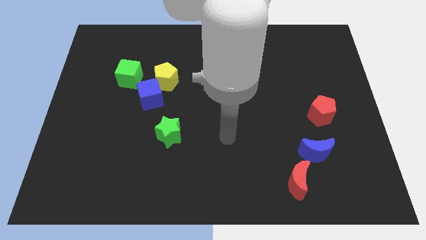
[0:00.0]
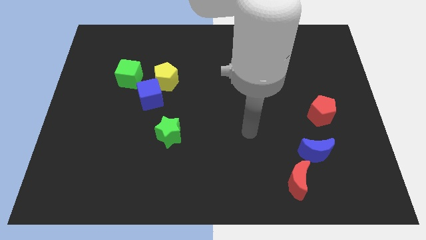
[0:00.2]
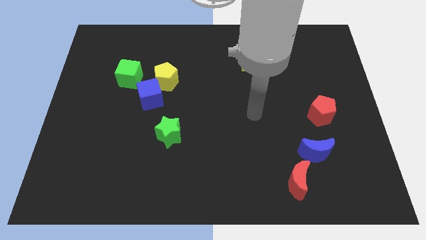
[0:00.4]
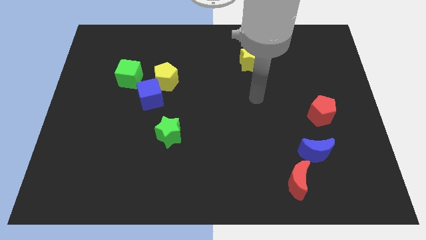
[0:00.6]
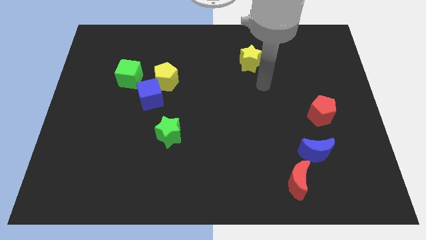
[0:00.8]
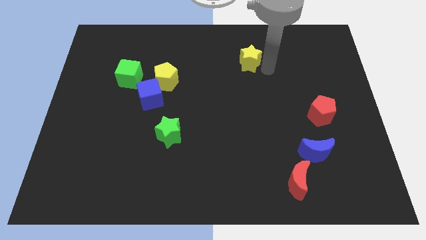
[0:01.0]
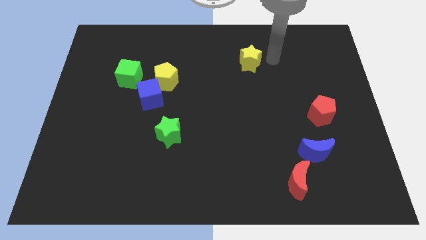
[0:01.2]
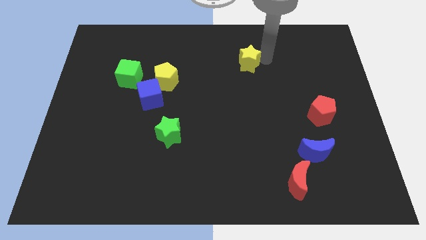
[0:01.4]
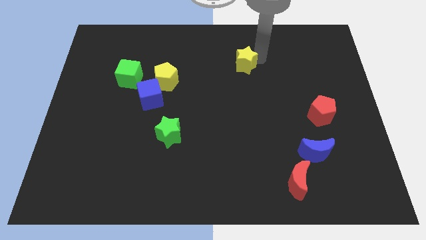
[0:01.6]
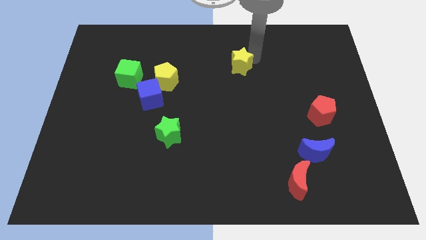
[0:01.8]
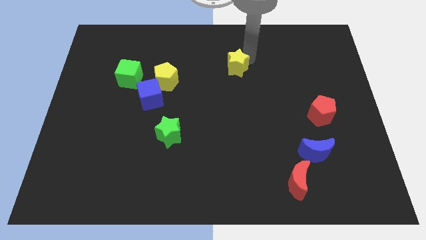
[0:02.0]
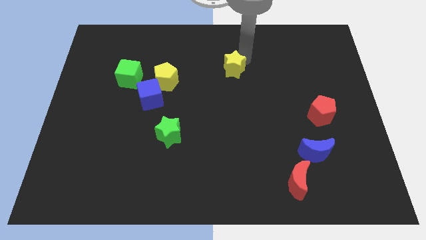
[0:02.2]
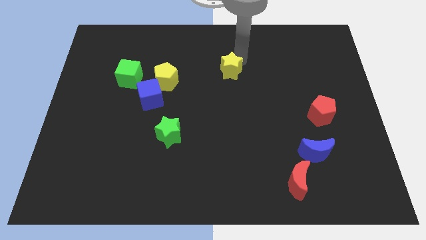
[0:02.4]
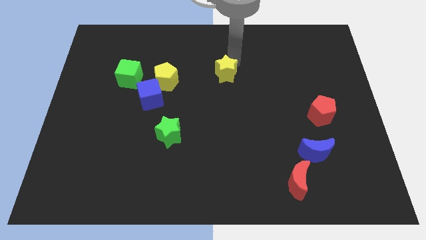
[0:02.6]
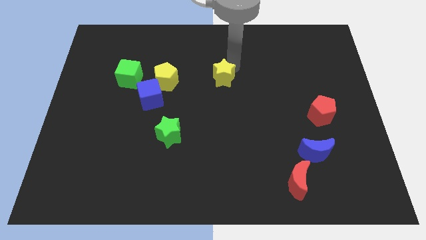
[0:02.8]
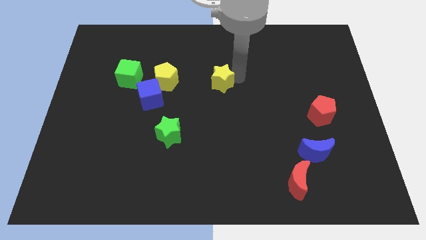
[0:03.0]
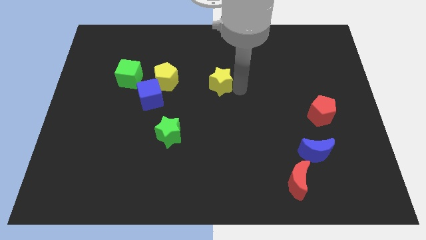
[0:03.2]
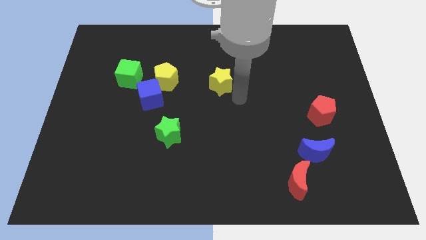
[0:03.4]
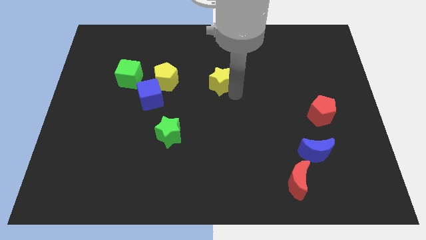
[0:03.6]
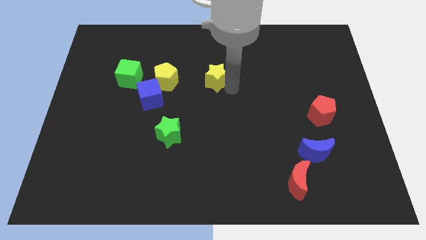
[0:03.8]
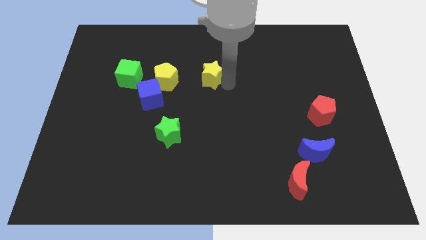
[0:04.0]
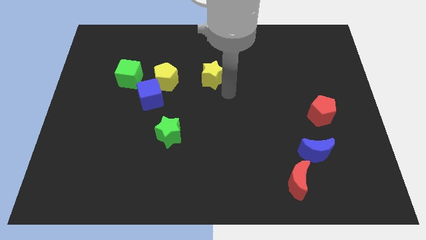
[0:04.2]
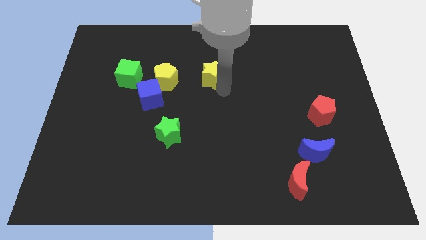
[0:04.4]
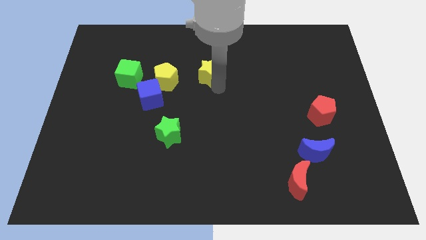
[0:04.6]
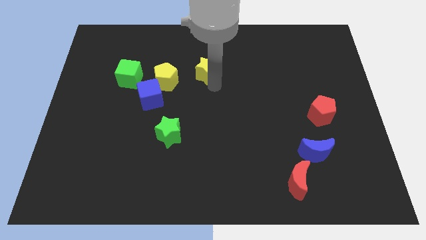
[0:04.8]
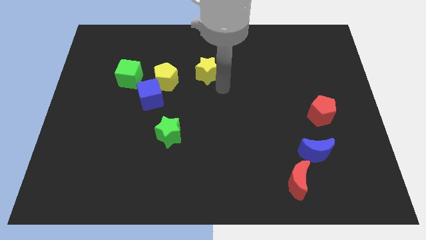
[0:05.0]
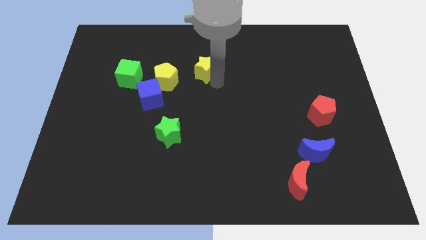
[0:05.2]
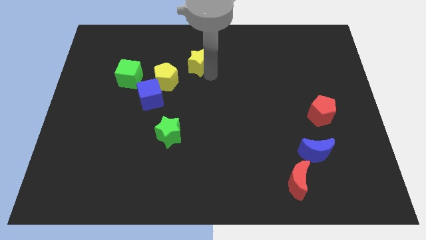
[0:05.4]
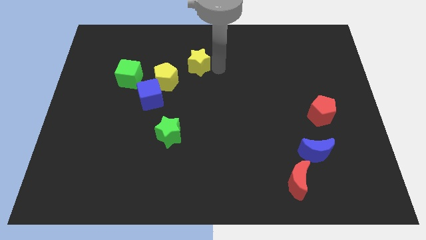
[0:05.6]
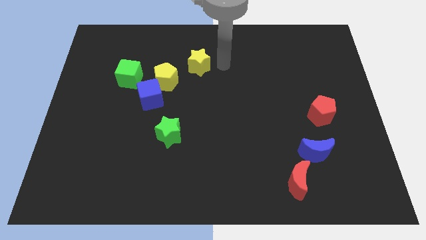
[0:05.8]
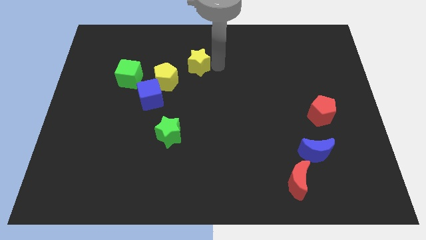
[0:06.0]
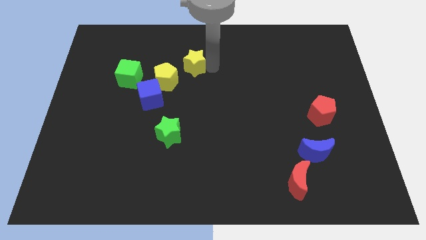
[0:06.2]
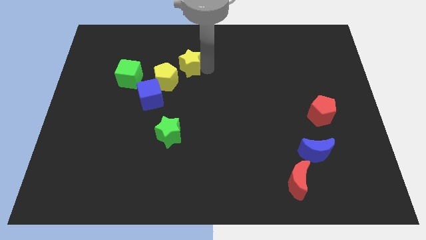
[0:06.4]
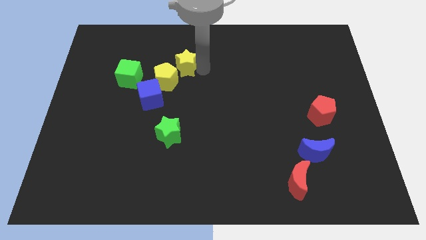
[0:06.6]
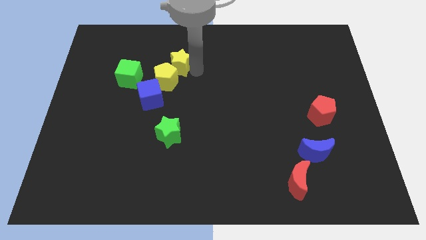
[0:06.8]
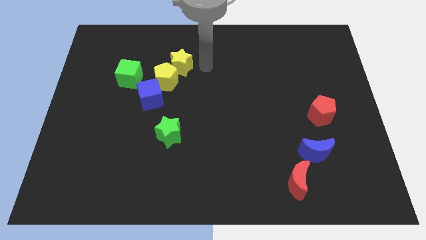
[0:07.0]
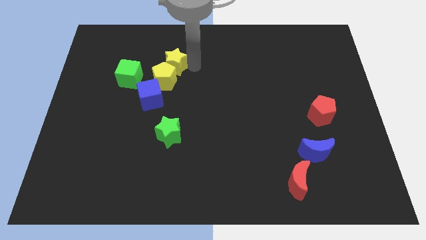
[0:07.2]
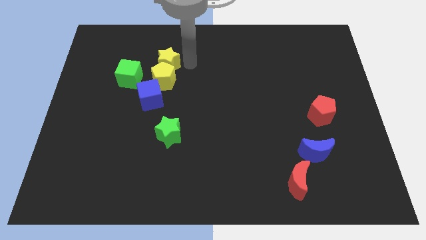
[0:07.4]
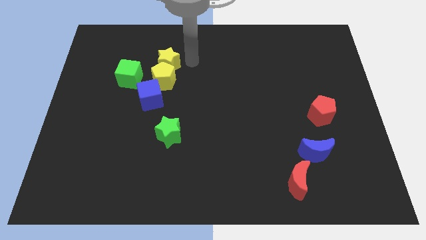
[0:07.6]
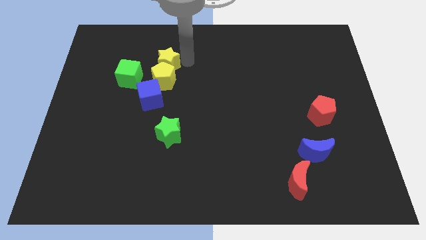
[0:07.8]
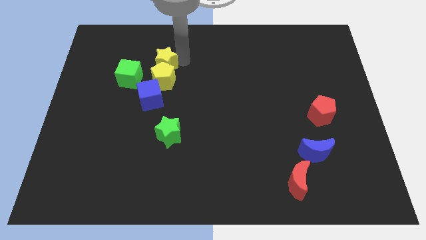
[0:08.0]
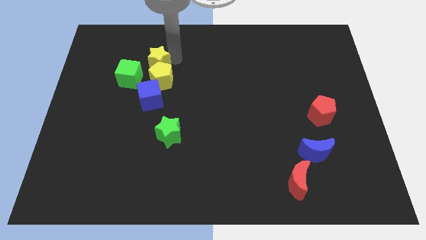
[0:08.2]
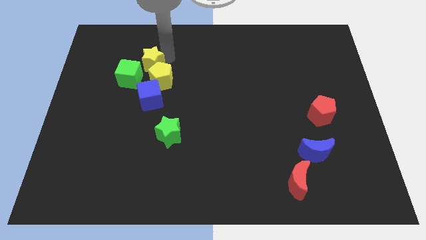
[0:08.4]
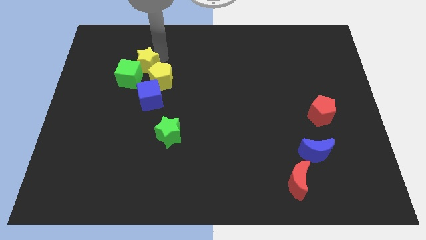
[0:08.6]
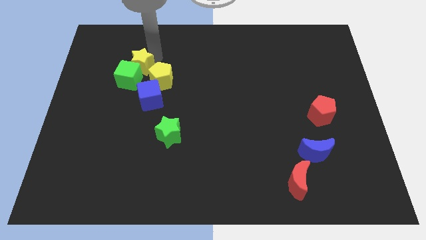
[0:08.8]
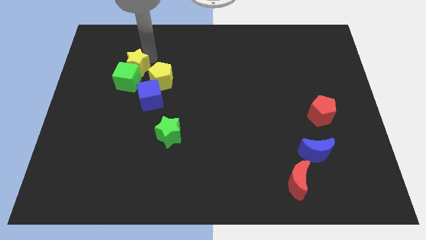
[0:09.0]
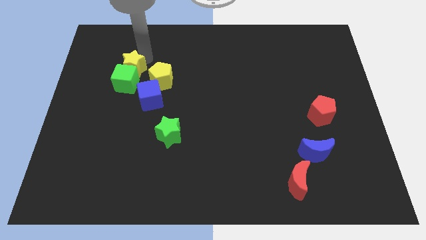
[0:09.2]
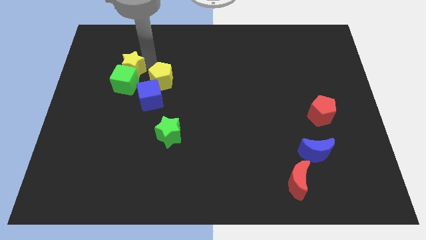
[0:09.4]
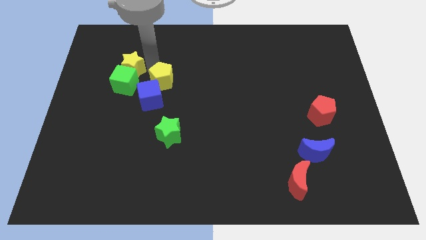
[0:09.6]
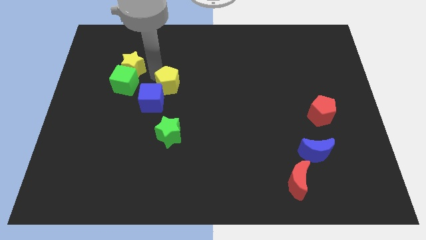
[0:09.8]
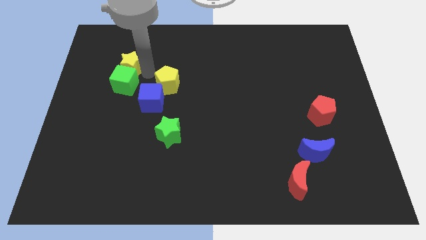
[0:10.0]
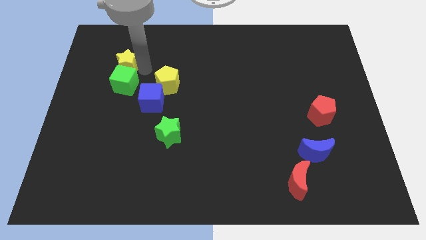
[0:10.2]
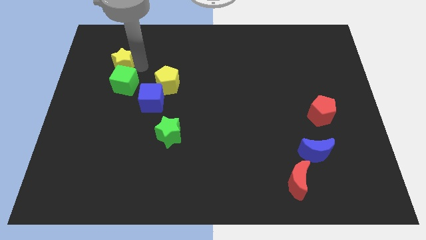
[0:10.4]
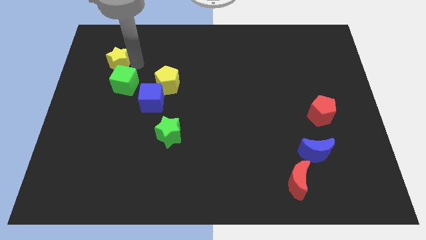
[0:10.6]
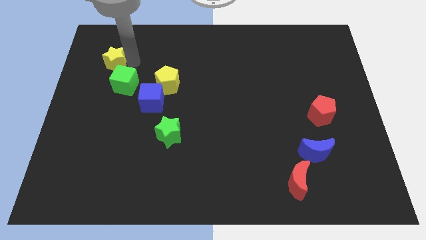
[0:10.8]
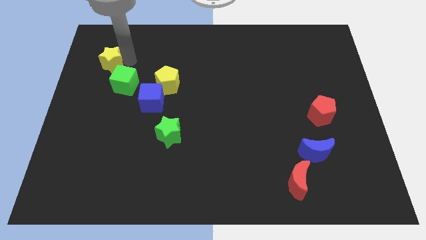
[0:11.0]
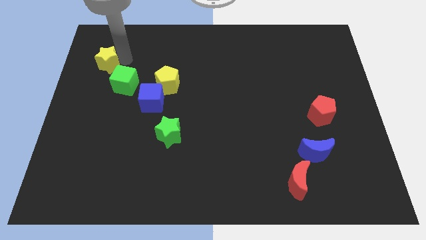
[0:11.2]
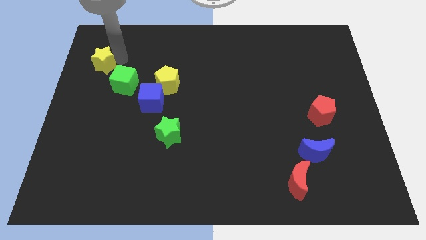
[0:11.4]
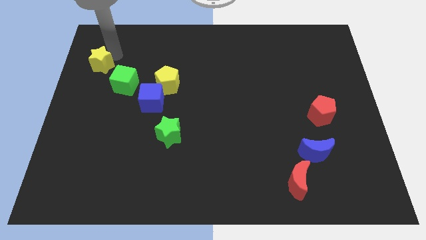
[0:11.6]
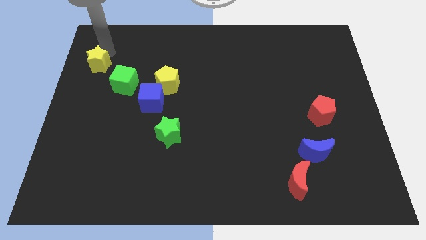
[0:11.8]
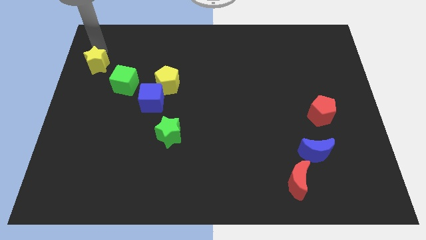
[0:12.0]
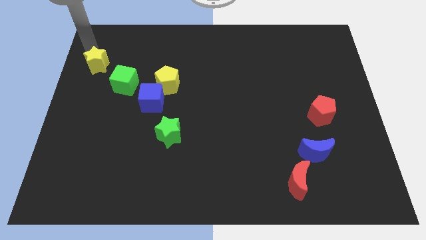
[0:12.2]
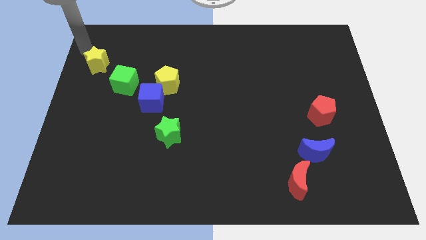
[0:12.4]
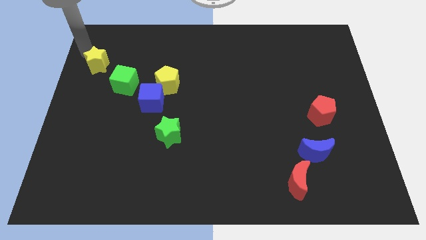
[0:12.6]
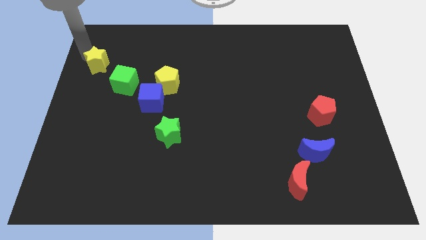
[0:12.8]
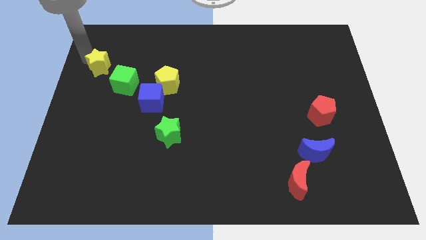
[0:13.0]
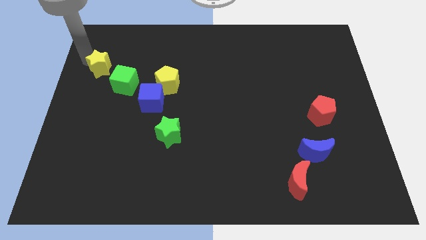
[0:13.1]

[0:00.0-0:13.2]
slide the yellow star to the left side of the board

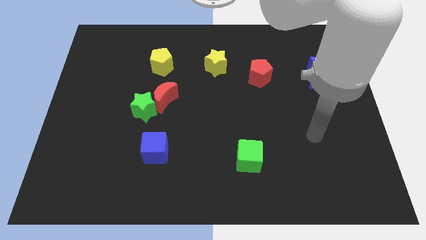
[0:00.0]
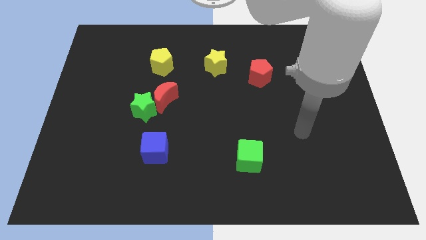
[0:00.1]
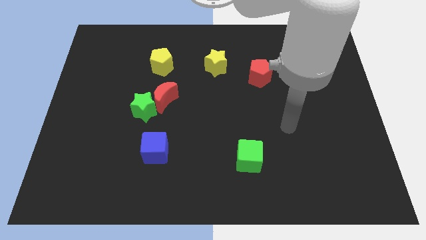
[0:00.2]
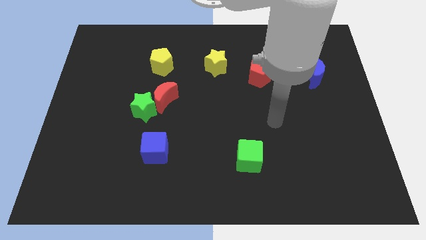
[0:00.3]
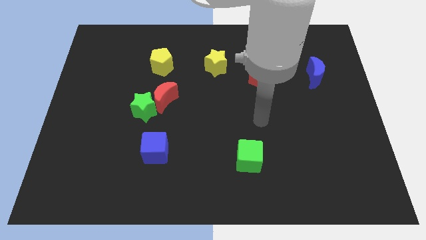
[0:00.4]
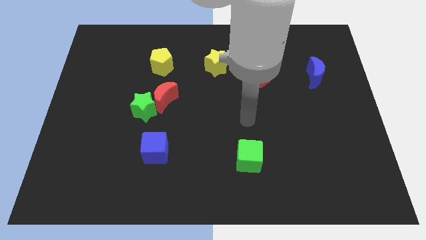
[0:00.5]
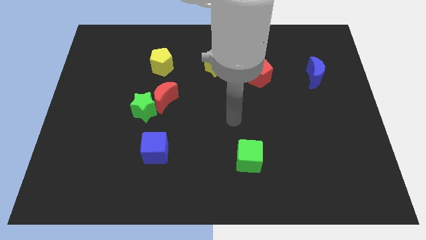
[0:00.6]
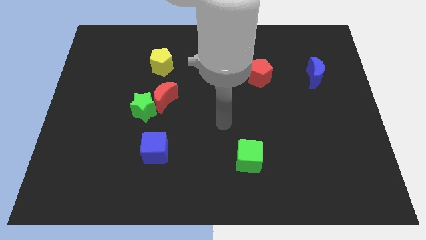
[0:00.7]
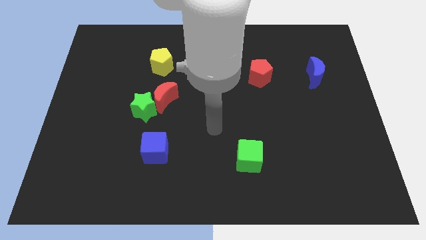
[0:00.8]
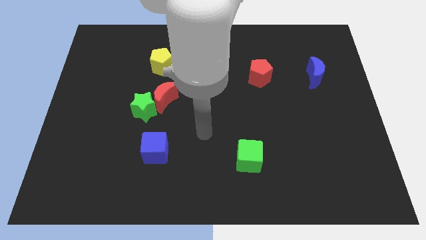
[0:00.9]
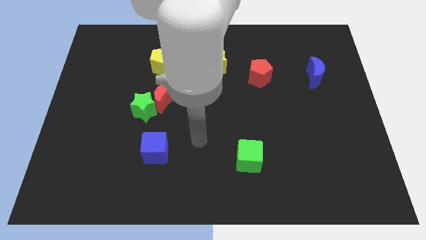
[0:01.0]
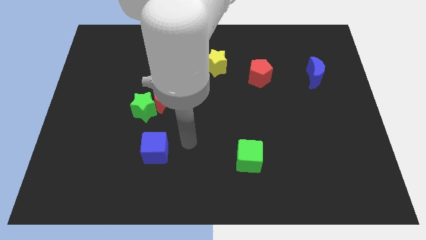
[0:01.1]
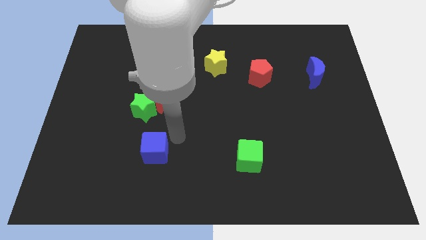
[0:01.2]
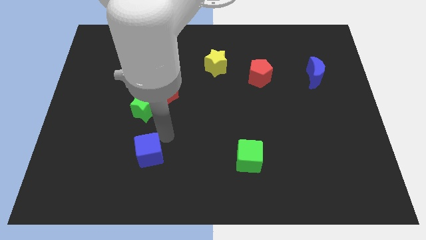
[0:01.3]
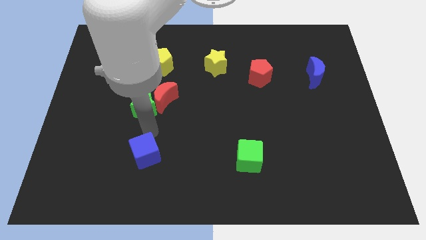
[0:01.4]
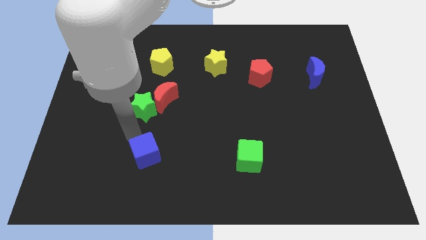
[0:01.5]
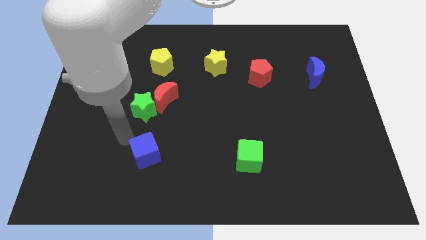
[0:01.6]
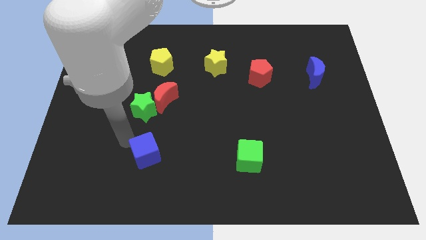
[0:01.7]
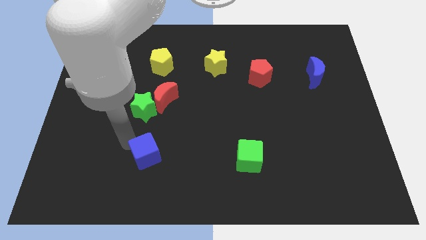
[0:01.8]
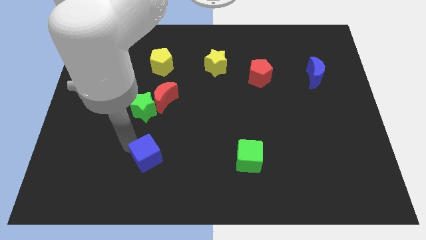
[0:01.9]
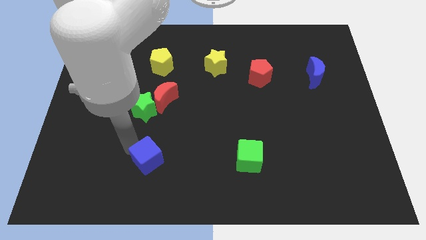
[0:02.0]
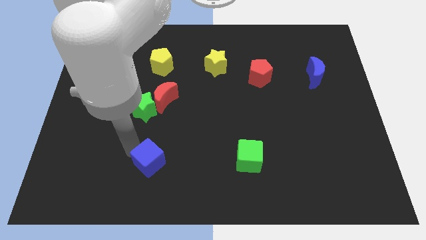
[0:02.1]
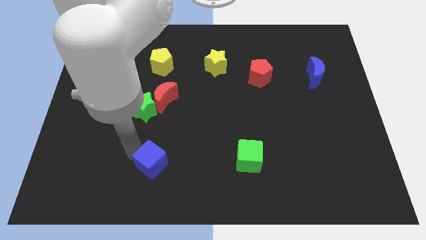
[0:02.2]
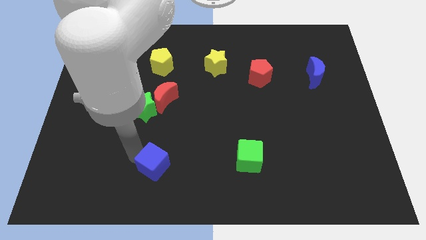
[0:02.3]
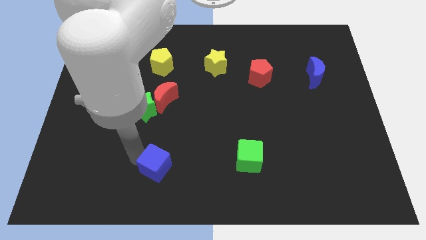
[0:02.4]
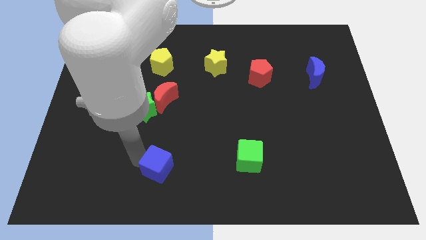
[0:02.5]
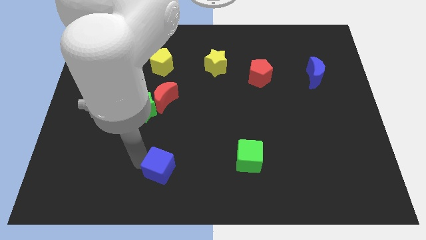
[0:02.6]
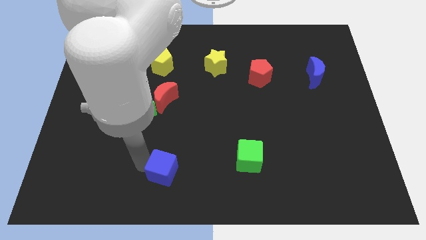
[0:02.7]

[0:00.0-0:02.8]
put the blue cube to the bottom side
